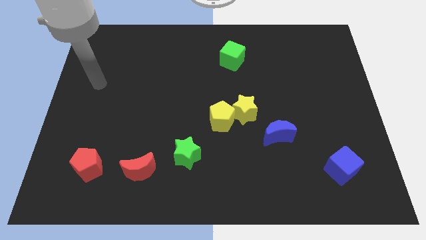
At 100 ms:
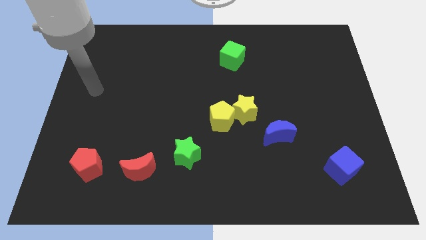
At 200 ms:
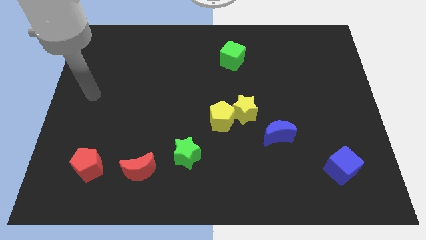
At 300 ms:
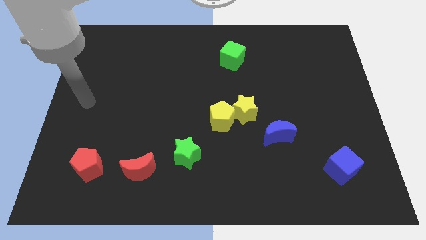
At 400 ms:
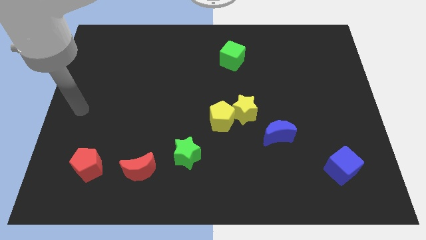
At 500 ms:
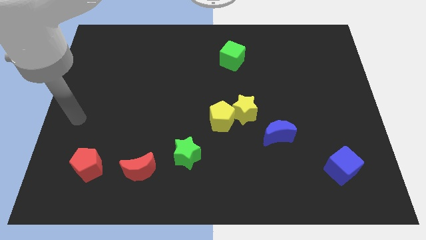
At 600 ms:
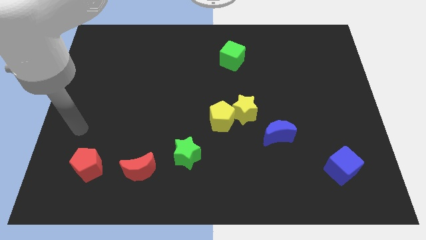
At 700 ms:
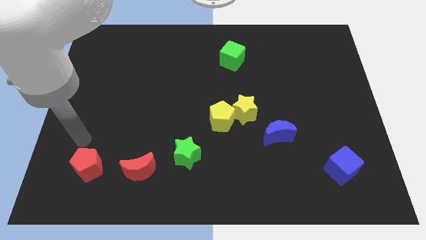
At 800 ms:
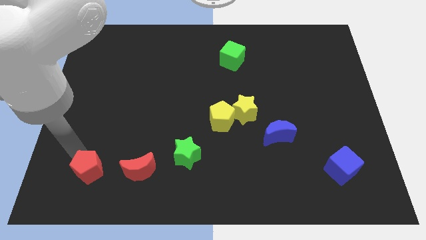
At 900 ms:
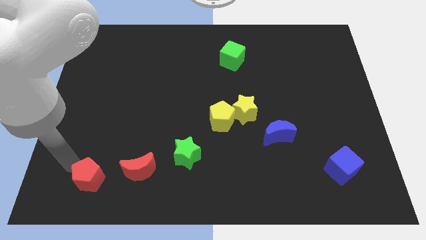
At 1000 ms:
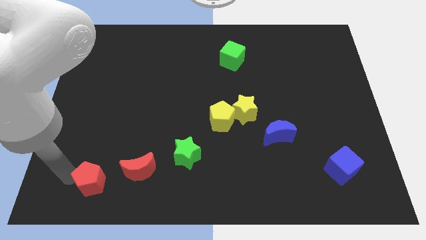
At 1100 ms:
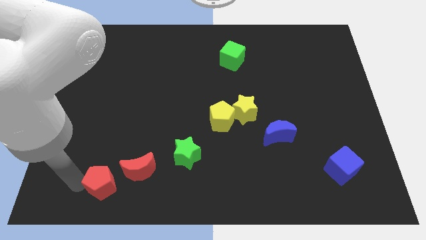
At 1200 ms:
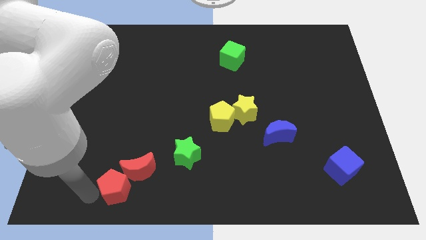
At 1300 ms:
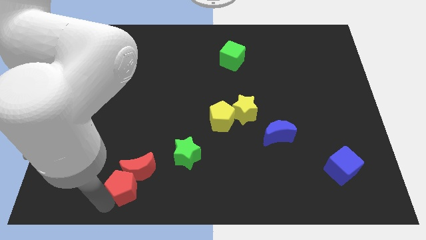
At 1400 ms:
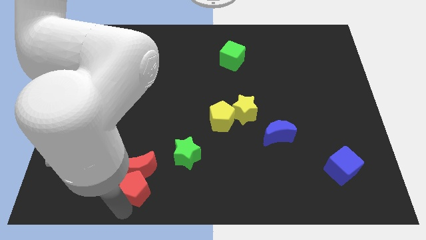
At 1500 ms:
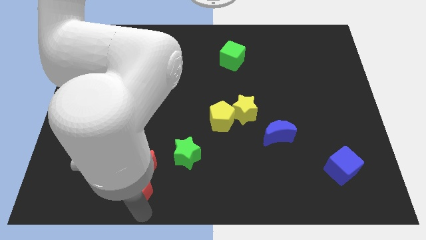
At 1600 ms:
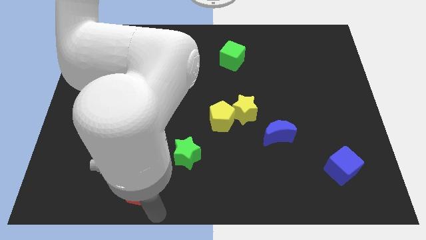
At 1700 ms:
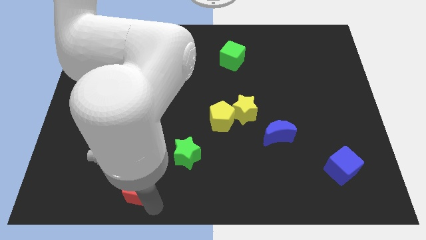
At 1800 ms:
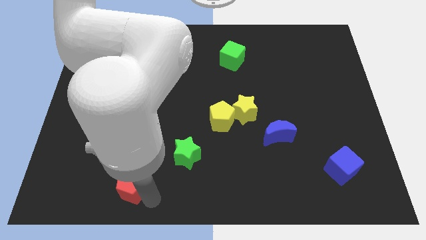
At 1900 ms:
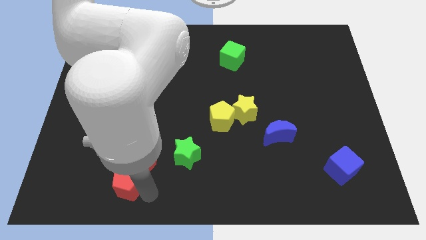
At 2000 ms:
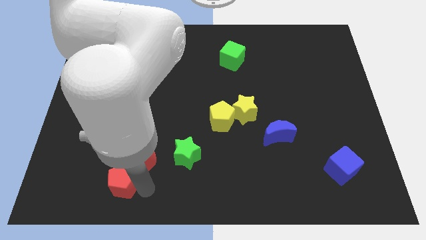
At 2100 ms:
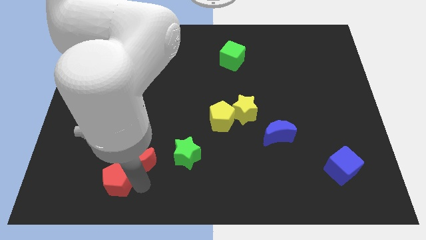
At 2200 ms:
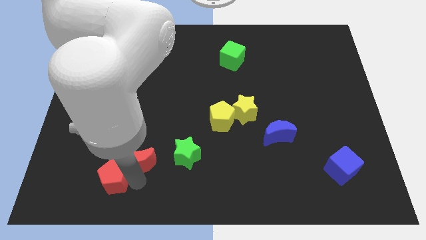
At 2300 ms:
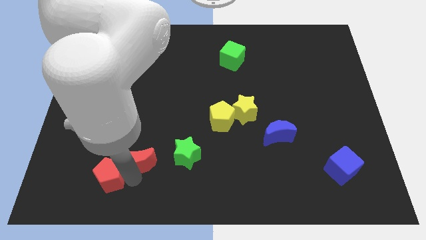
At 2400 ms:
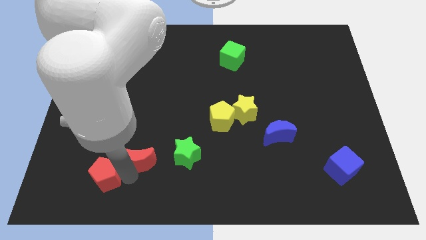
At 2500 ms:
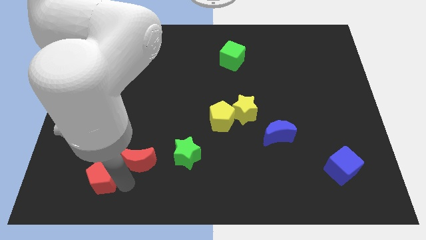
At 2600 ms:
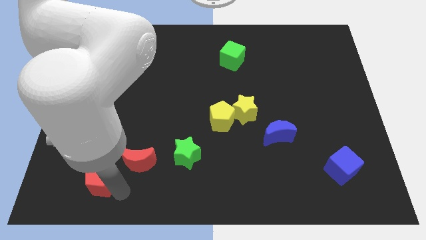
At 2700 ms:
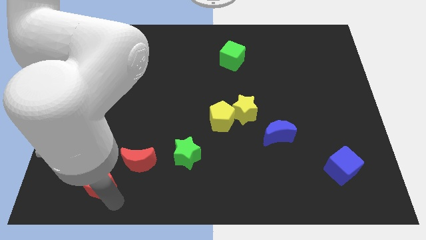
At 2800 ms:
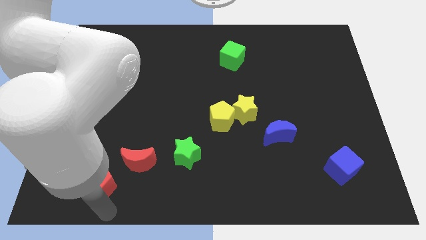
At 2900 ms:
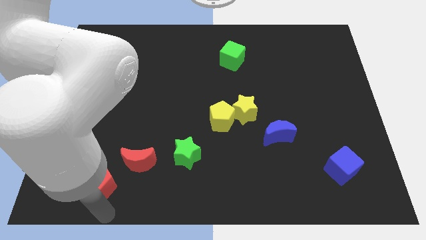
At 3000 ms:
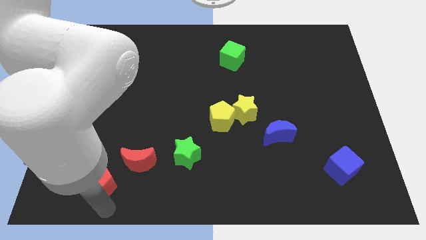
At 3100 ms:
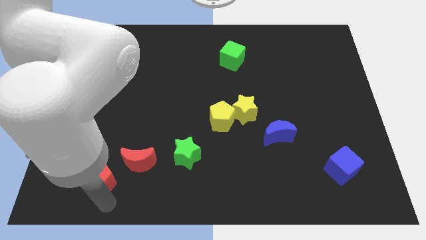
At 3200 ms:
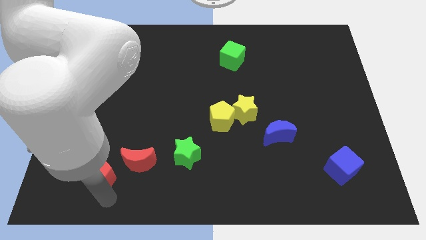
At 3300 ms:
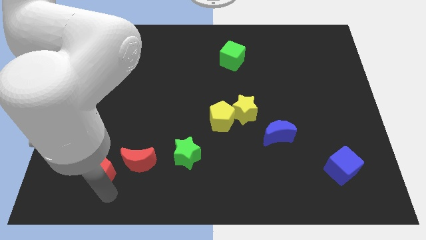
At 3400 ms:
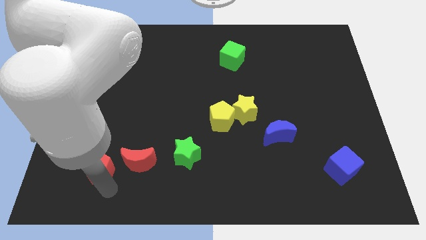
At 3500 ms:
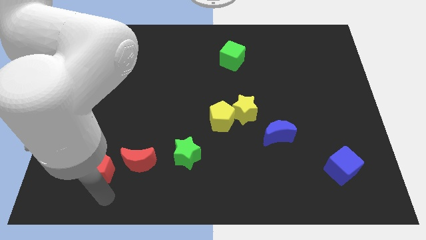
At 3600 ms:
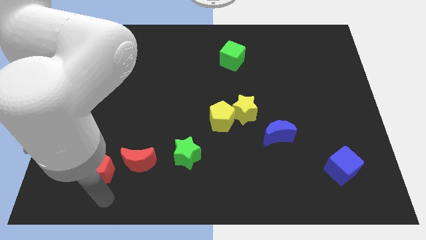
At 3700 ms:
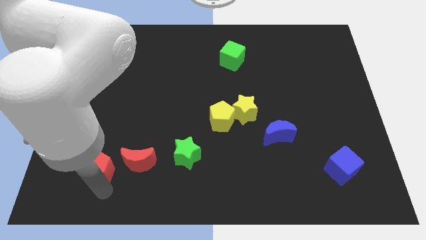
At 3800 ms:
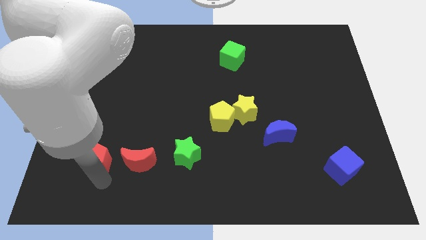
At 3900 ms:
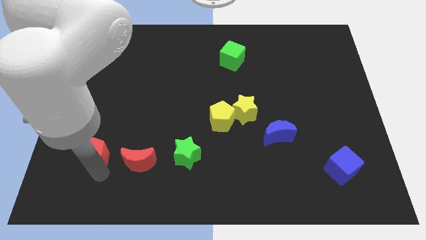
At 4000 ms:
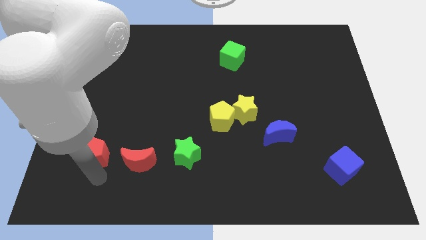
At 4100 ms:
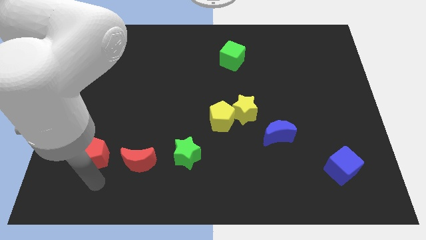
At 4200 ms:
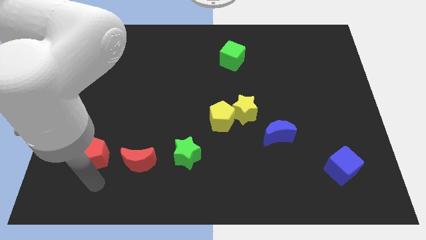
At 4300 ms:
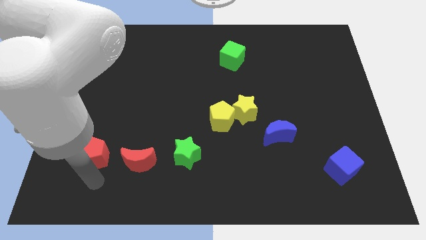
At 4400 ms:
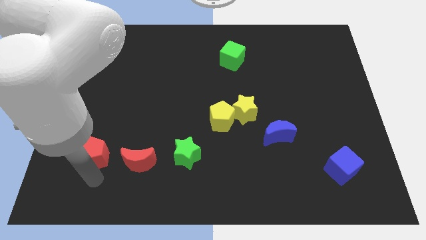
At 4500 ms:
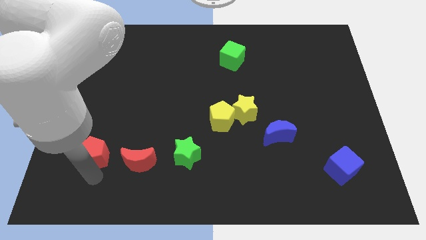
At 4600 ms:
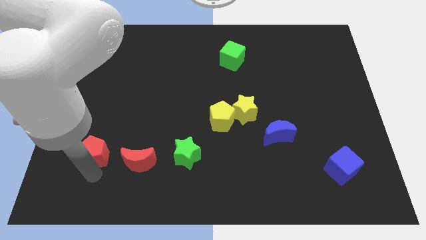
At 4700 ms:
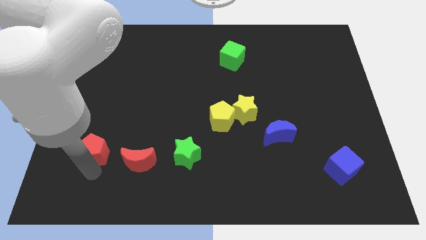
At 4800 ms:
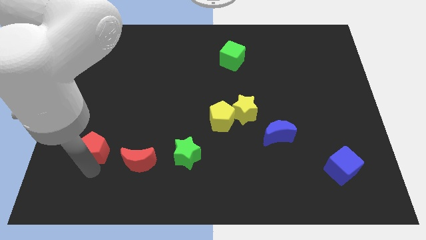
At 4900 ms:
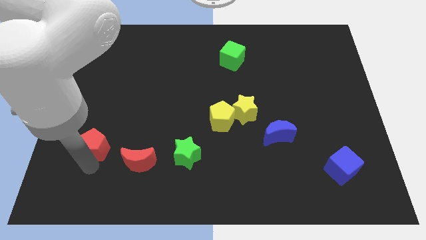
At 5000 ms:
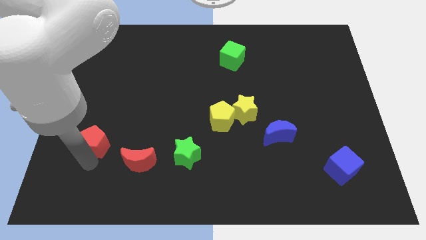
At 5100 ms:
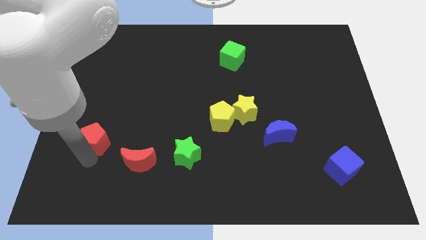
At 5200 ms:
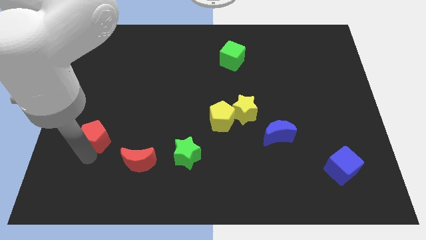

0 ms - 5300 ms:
push the red pentagon upwards a little

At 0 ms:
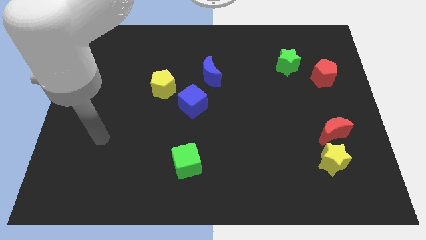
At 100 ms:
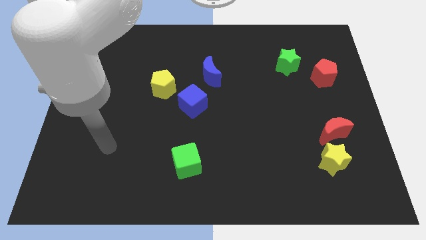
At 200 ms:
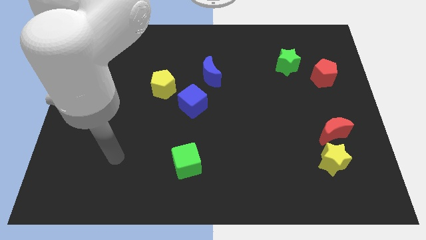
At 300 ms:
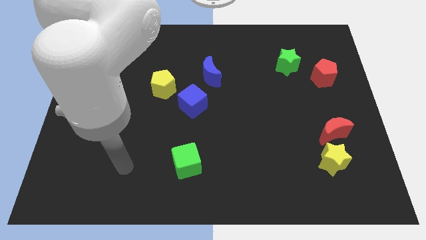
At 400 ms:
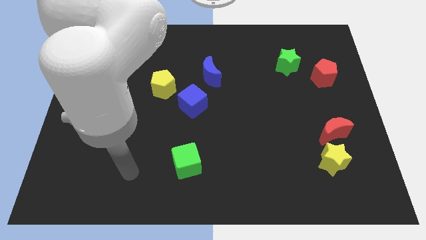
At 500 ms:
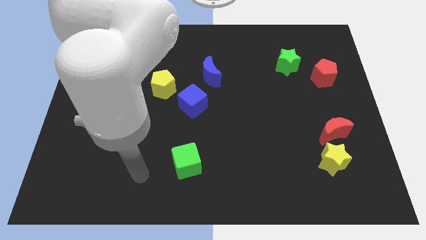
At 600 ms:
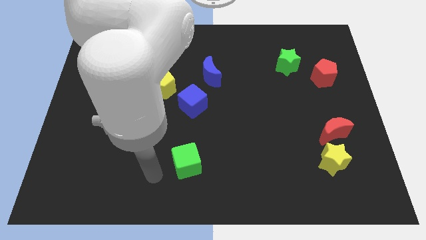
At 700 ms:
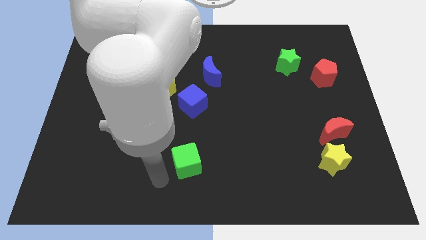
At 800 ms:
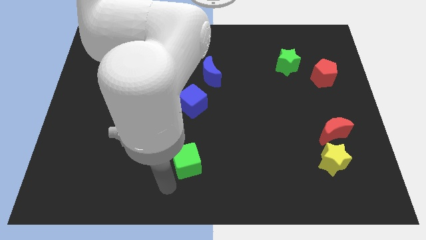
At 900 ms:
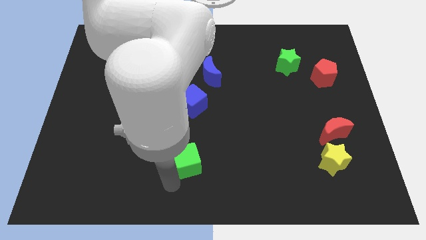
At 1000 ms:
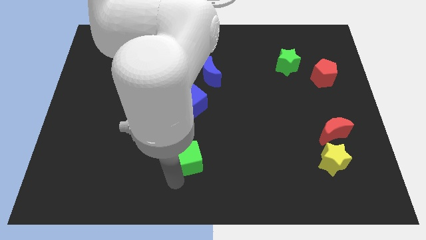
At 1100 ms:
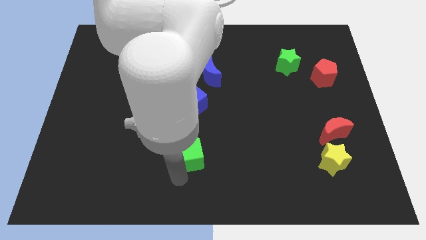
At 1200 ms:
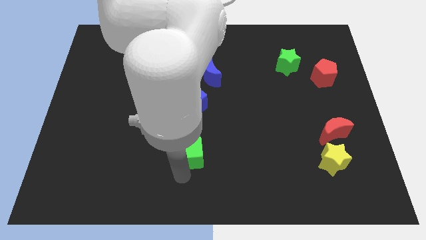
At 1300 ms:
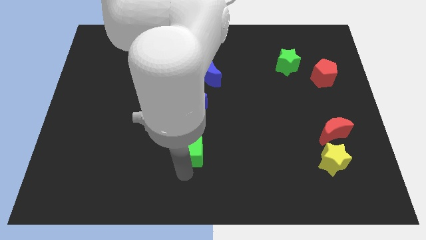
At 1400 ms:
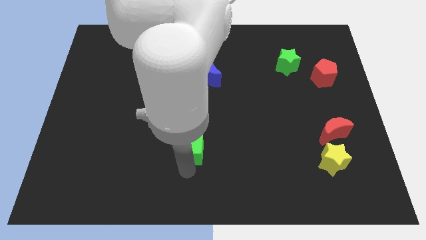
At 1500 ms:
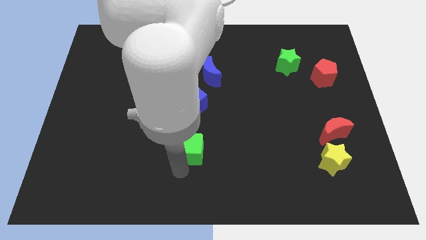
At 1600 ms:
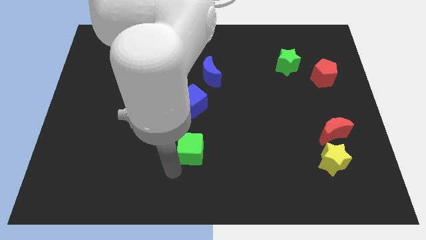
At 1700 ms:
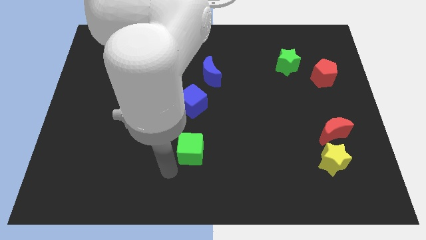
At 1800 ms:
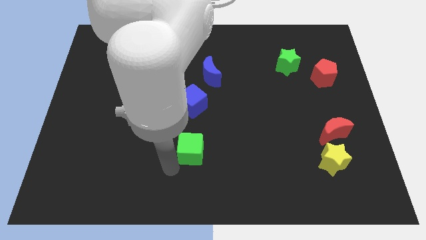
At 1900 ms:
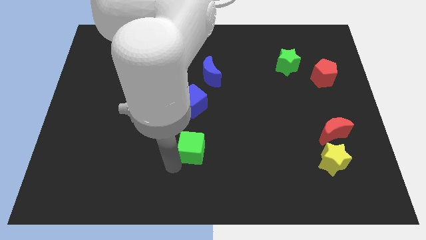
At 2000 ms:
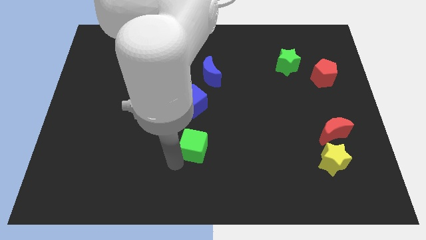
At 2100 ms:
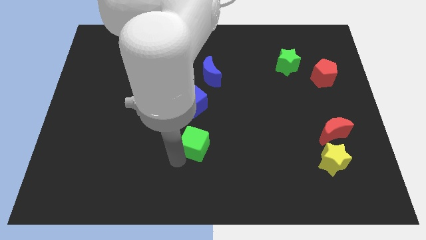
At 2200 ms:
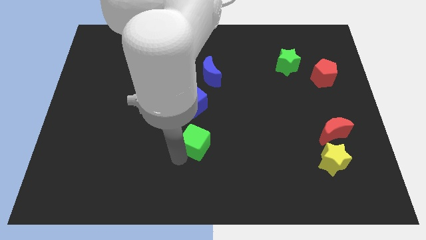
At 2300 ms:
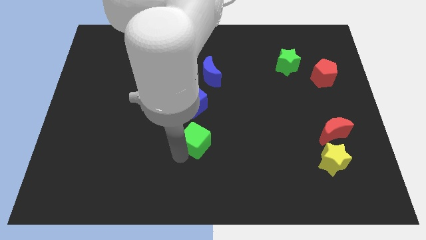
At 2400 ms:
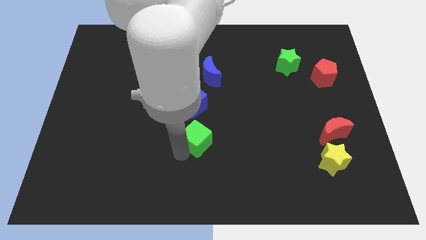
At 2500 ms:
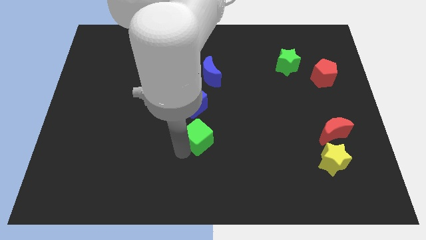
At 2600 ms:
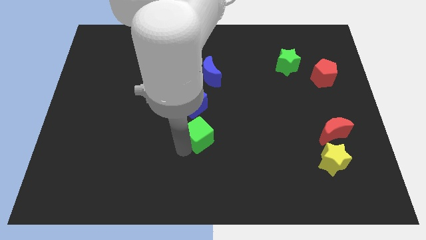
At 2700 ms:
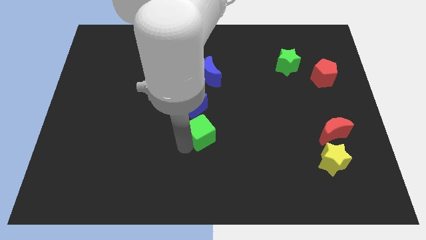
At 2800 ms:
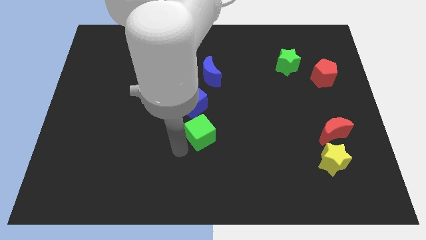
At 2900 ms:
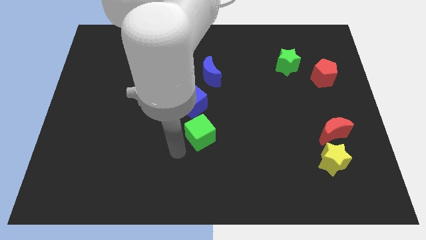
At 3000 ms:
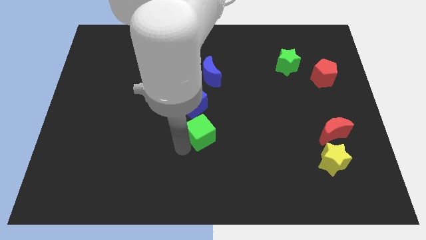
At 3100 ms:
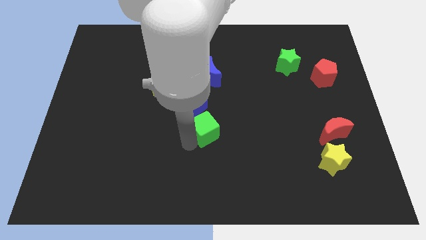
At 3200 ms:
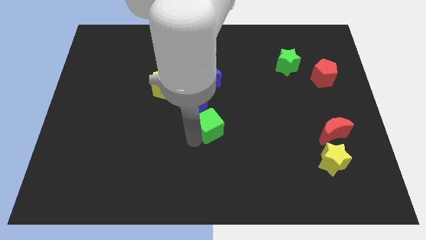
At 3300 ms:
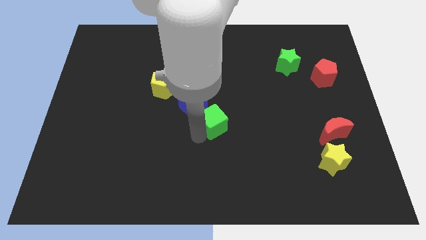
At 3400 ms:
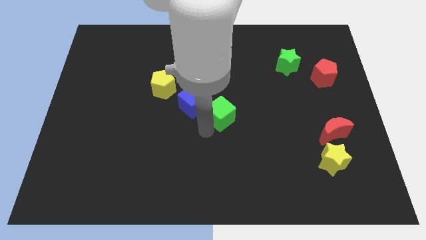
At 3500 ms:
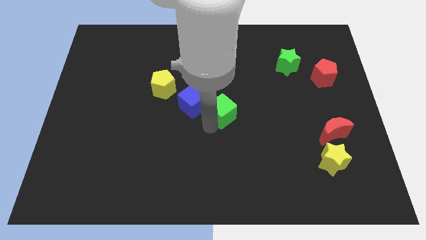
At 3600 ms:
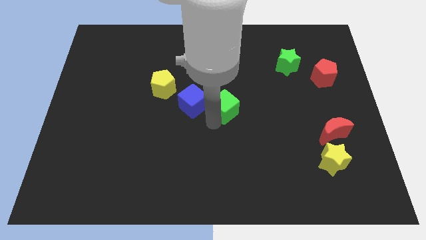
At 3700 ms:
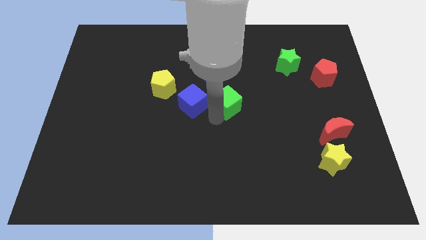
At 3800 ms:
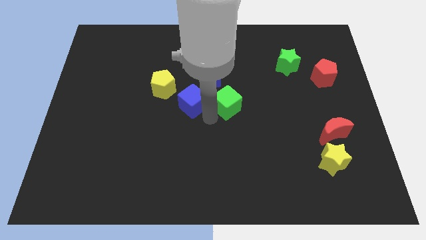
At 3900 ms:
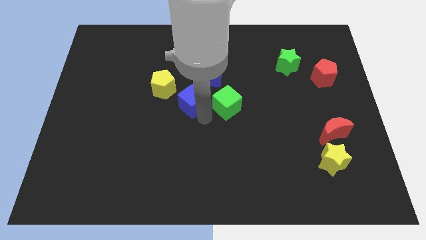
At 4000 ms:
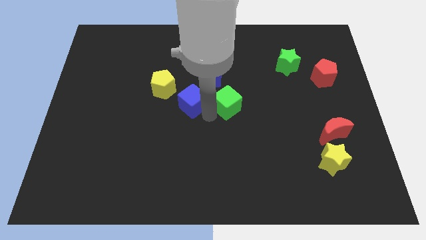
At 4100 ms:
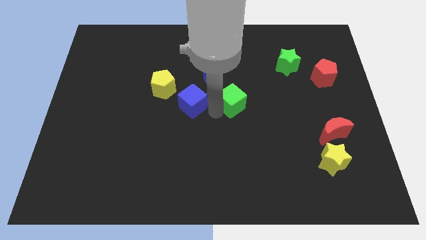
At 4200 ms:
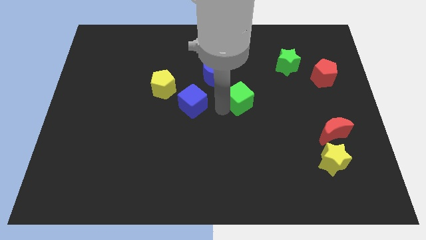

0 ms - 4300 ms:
slide the green cube upwards and then right
